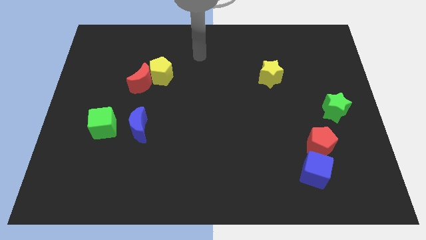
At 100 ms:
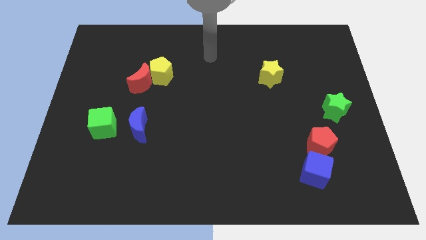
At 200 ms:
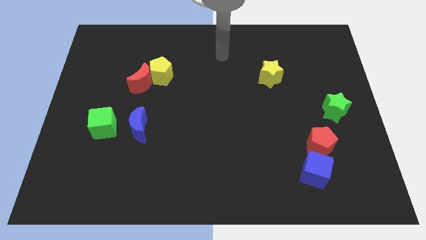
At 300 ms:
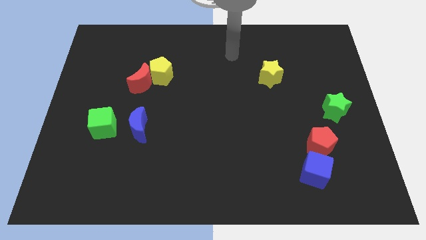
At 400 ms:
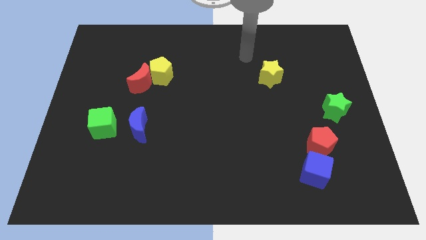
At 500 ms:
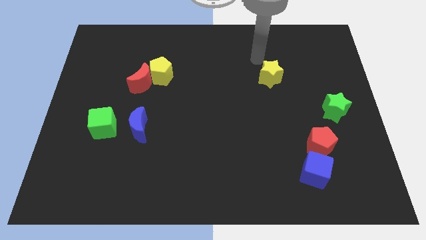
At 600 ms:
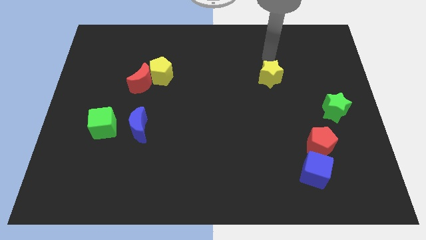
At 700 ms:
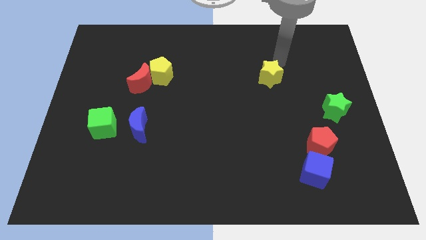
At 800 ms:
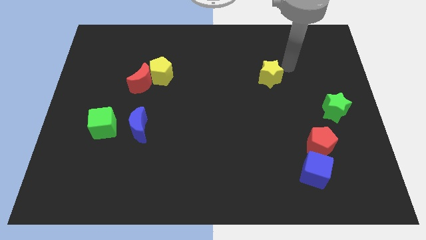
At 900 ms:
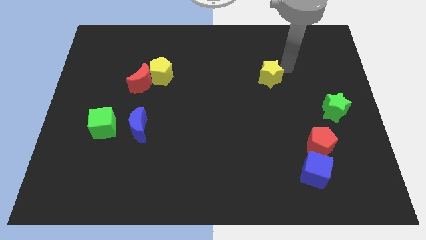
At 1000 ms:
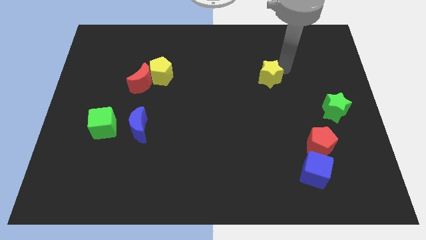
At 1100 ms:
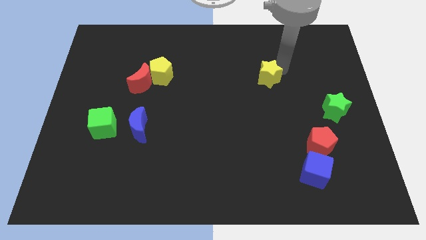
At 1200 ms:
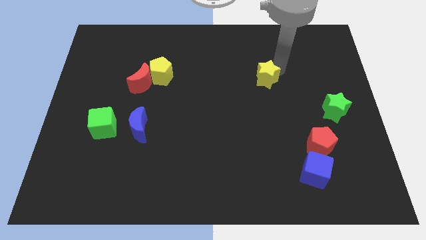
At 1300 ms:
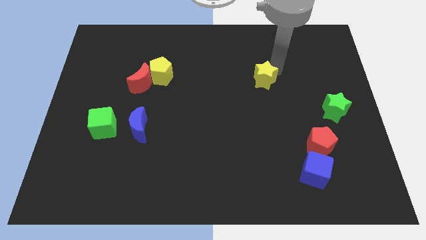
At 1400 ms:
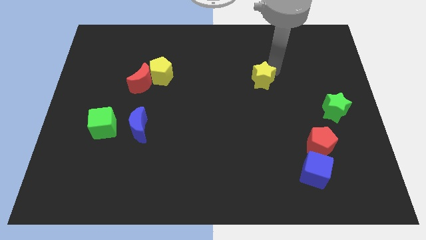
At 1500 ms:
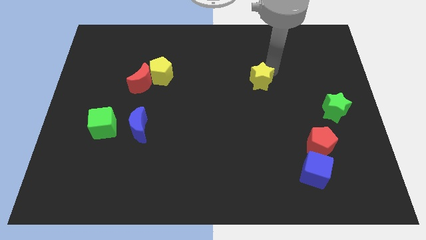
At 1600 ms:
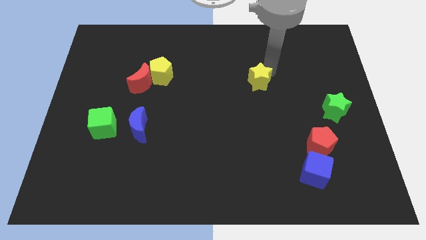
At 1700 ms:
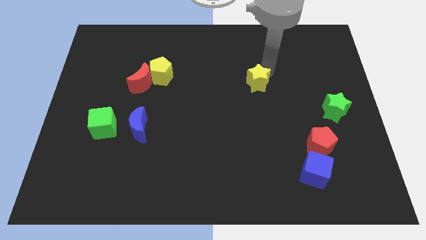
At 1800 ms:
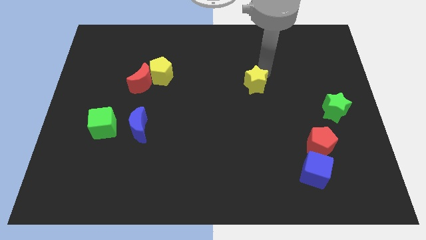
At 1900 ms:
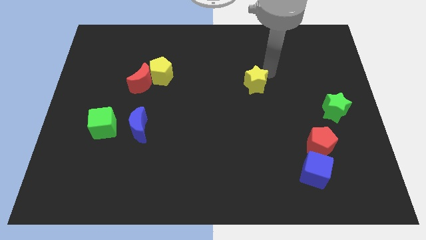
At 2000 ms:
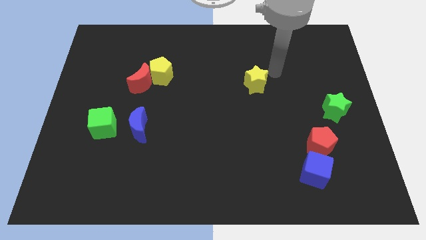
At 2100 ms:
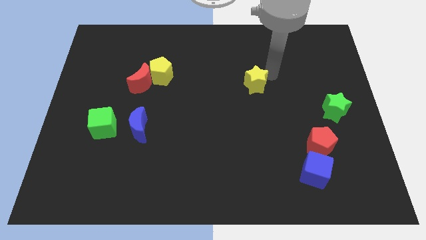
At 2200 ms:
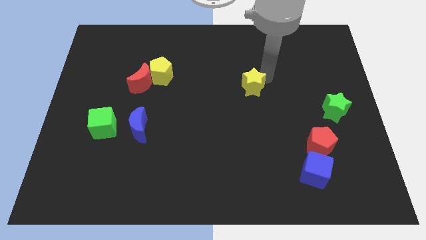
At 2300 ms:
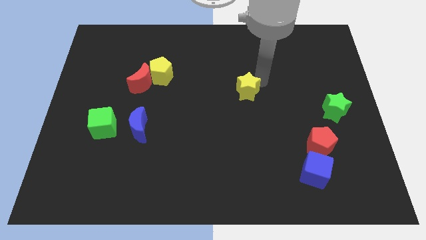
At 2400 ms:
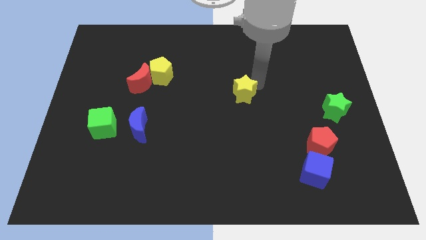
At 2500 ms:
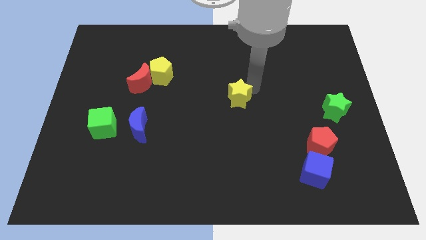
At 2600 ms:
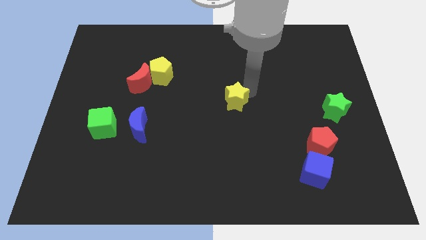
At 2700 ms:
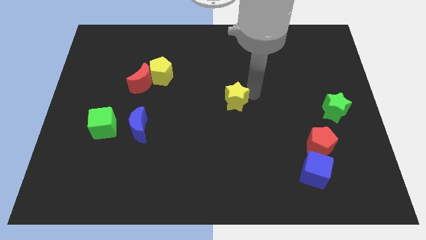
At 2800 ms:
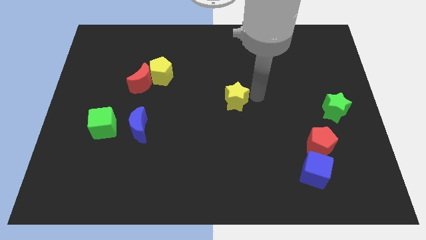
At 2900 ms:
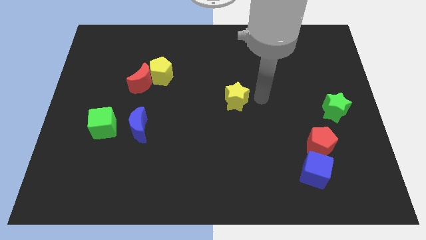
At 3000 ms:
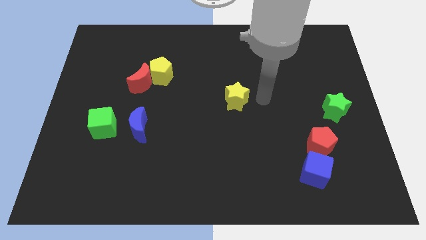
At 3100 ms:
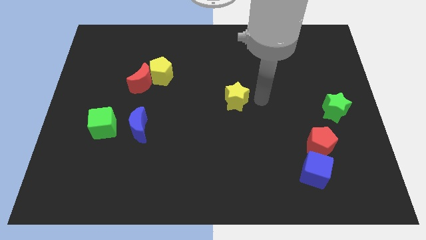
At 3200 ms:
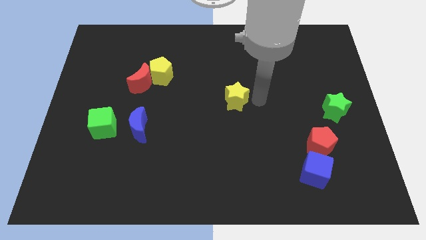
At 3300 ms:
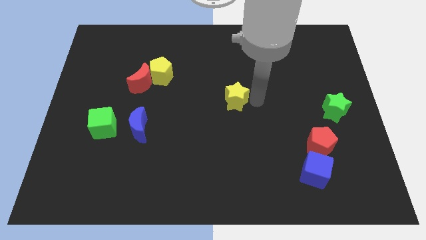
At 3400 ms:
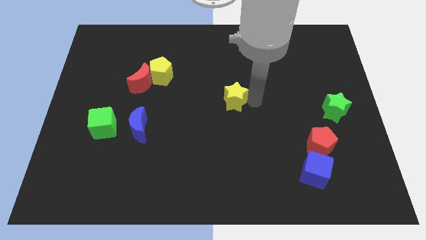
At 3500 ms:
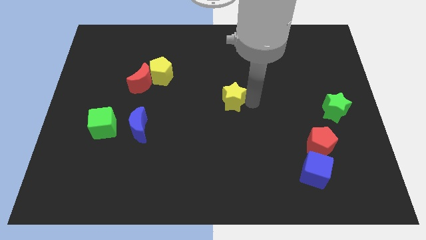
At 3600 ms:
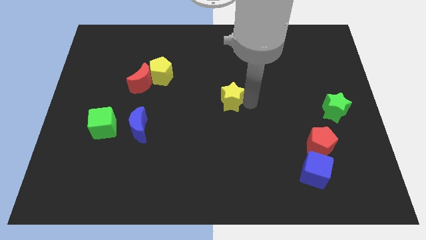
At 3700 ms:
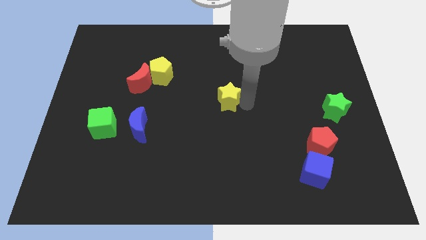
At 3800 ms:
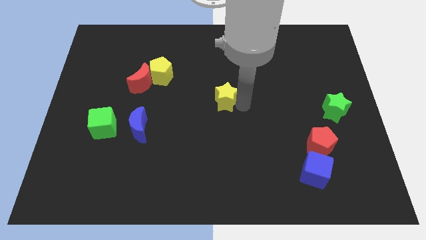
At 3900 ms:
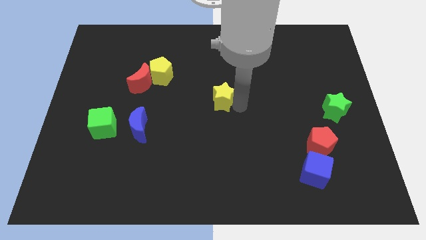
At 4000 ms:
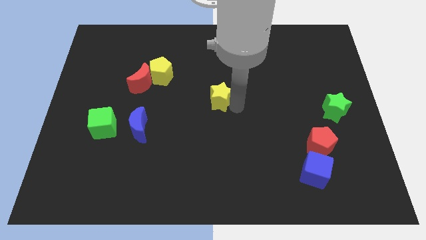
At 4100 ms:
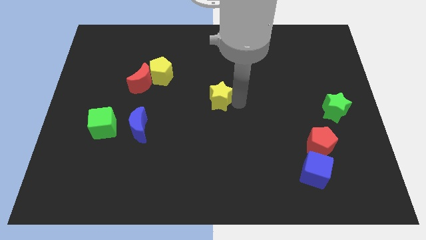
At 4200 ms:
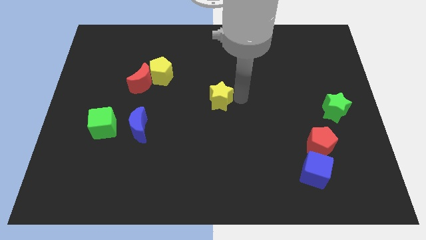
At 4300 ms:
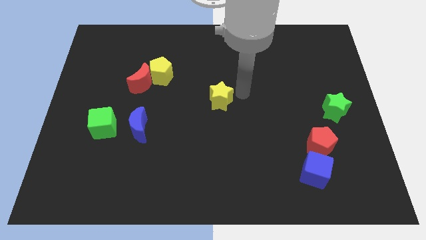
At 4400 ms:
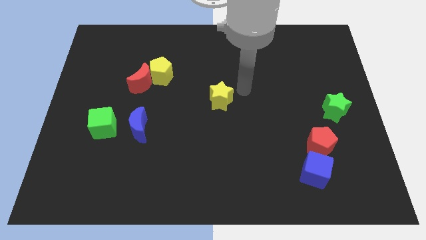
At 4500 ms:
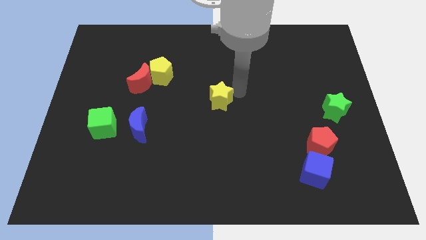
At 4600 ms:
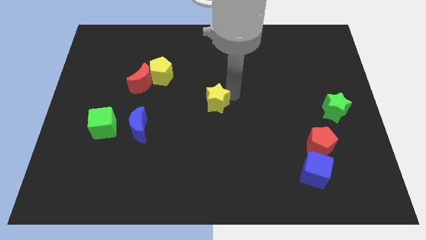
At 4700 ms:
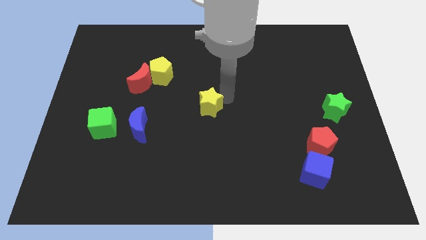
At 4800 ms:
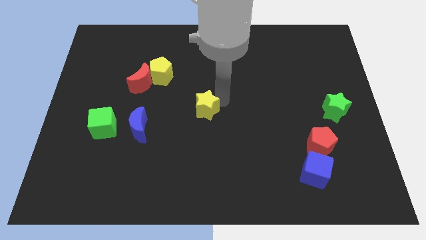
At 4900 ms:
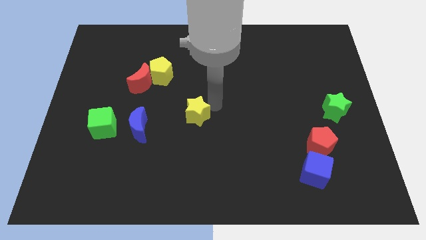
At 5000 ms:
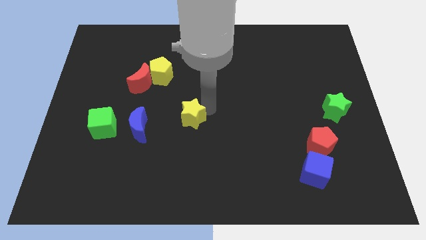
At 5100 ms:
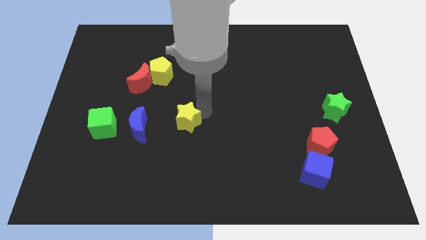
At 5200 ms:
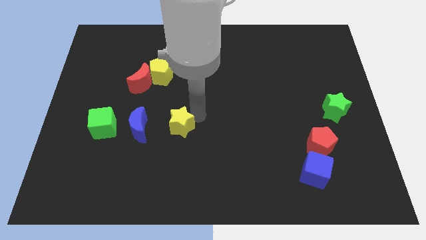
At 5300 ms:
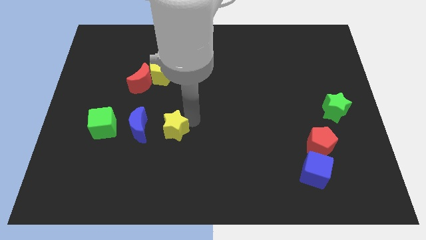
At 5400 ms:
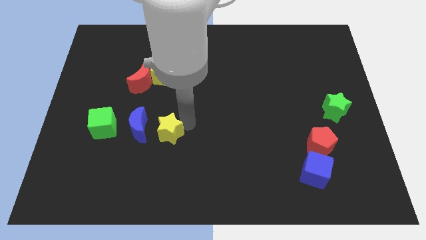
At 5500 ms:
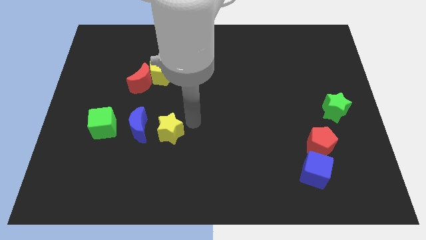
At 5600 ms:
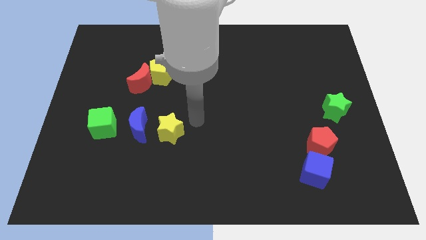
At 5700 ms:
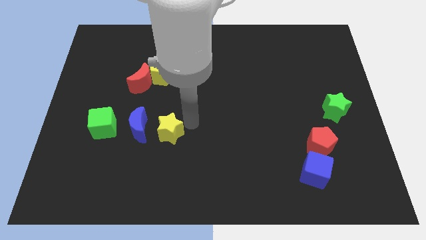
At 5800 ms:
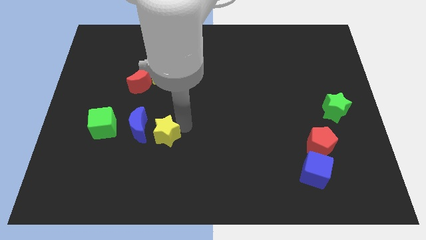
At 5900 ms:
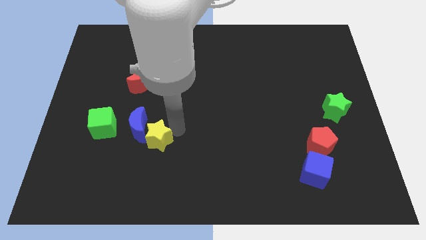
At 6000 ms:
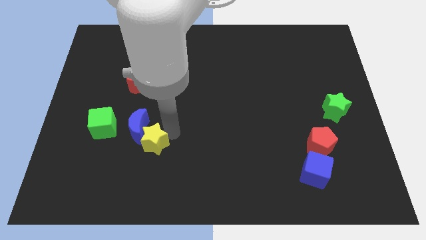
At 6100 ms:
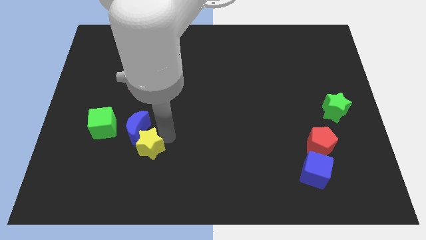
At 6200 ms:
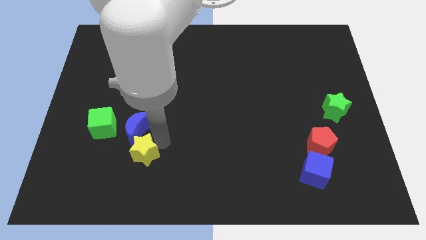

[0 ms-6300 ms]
push the yellow star to the bottom right of the green cube
